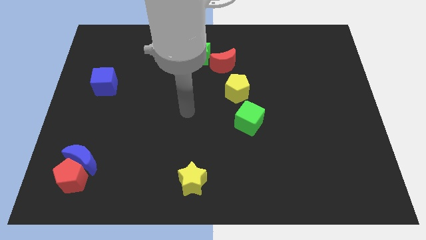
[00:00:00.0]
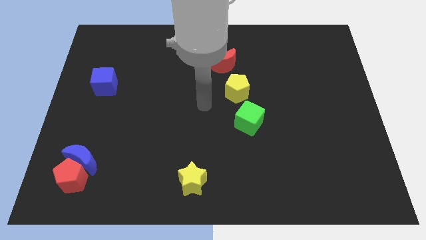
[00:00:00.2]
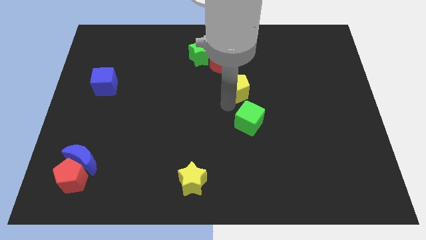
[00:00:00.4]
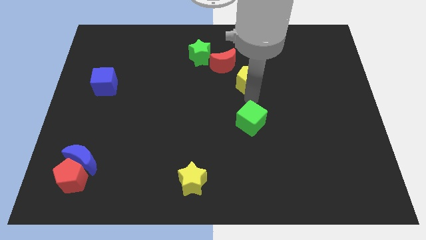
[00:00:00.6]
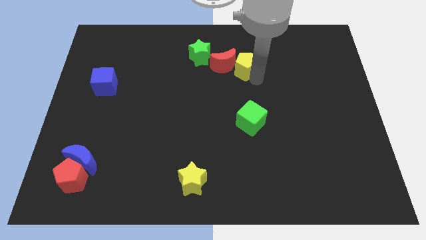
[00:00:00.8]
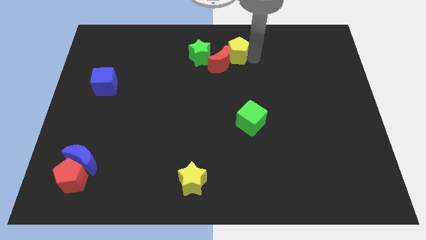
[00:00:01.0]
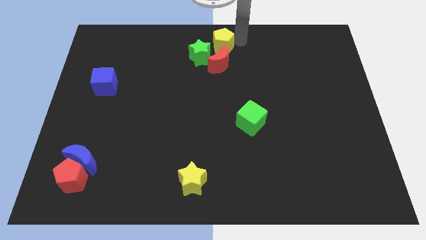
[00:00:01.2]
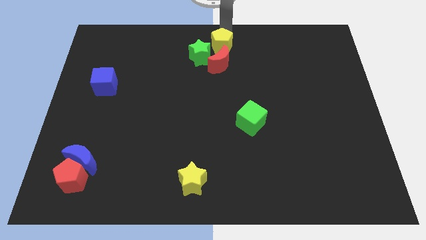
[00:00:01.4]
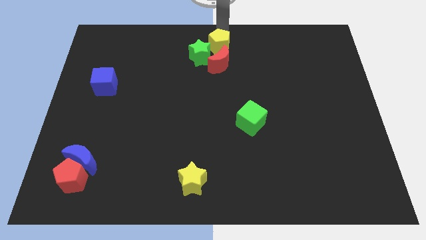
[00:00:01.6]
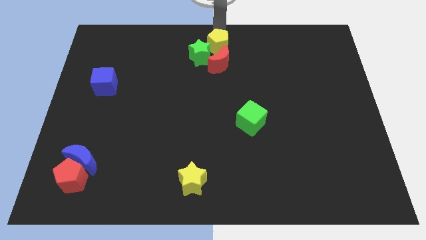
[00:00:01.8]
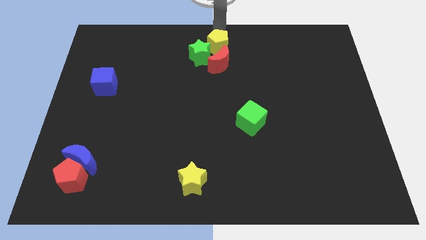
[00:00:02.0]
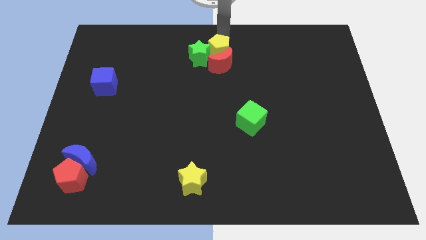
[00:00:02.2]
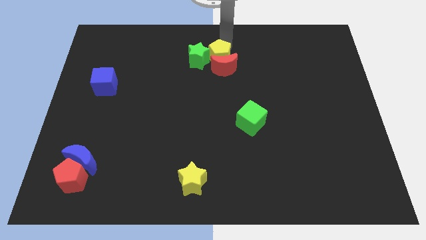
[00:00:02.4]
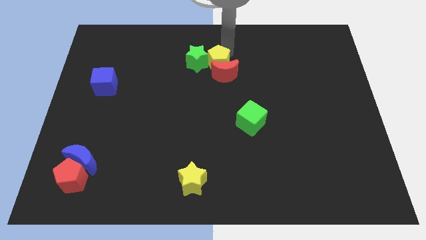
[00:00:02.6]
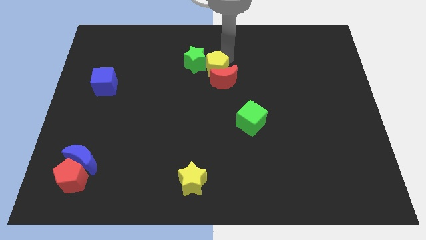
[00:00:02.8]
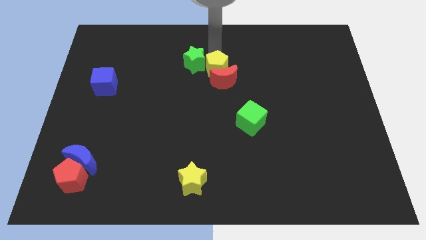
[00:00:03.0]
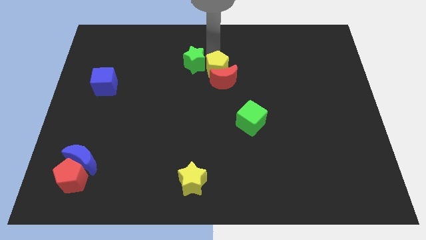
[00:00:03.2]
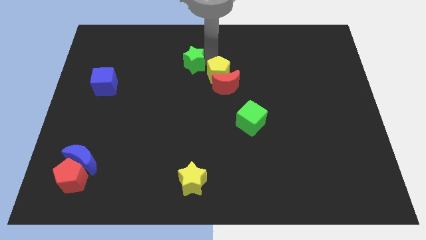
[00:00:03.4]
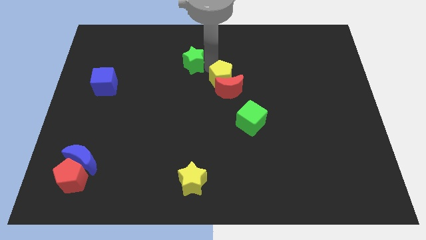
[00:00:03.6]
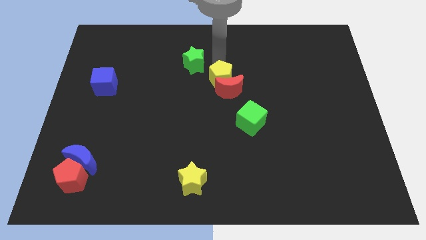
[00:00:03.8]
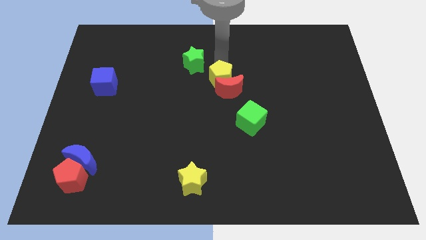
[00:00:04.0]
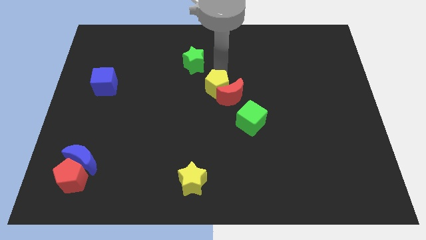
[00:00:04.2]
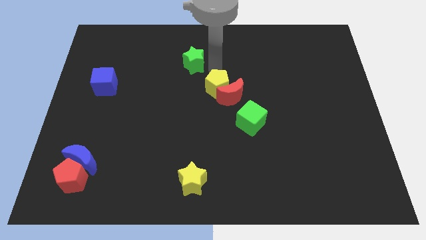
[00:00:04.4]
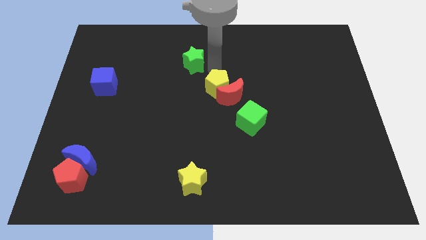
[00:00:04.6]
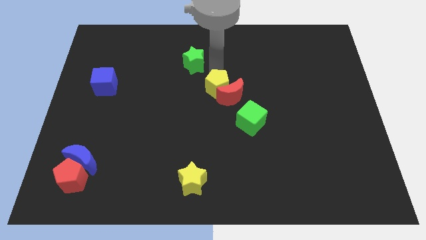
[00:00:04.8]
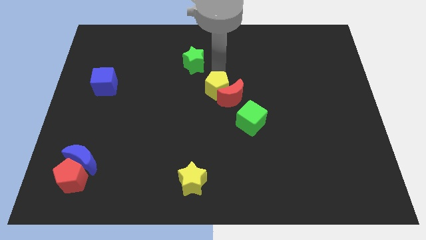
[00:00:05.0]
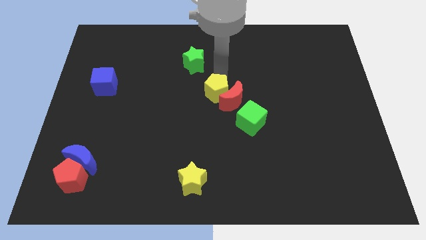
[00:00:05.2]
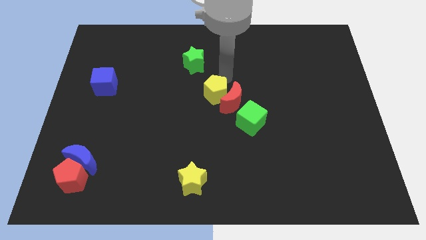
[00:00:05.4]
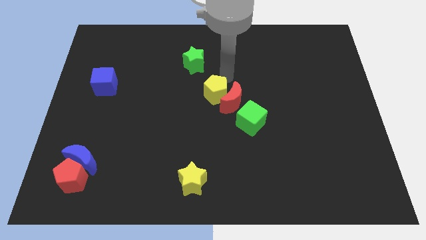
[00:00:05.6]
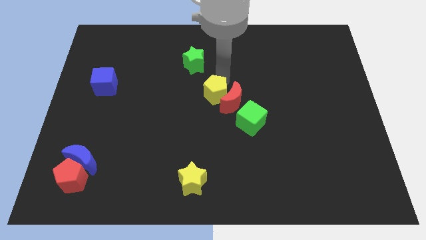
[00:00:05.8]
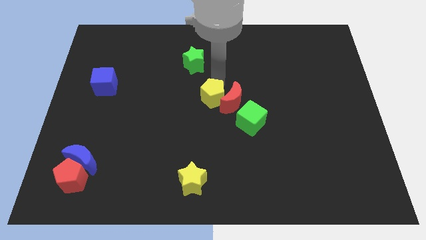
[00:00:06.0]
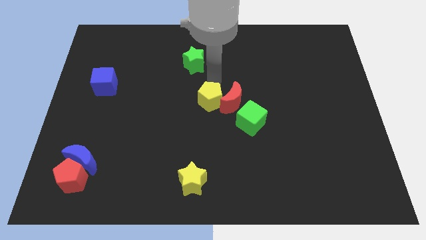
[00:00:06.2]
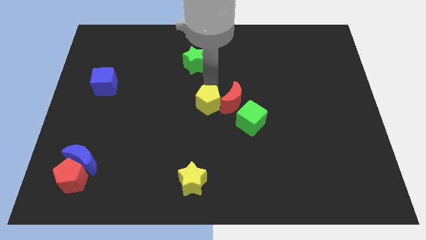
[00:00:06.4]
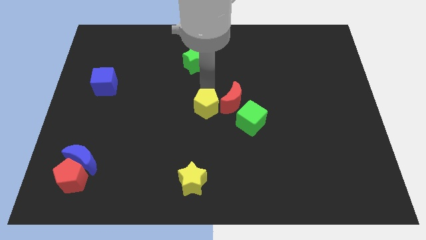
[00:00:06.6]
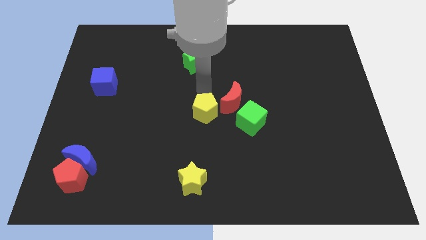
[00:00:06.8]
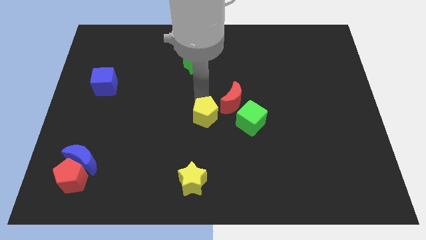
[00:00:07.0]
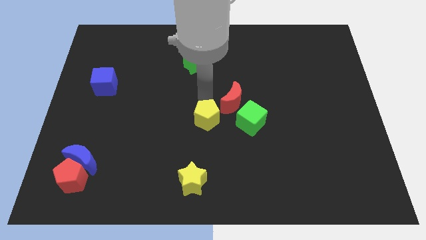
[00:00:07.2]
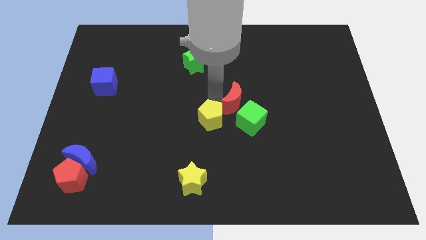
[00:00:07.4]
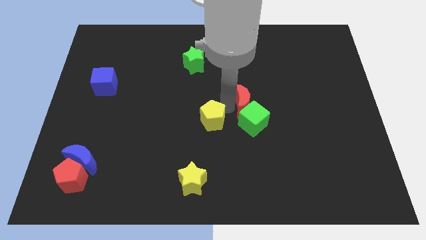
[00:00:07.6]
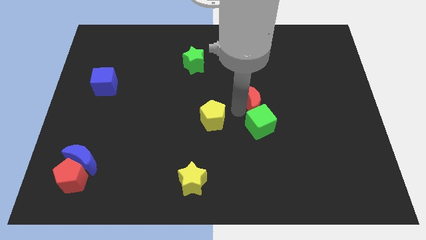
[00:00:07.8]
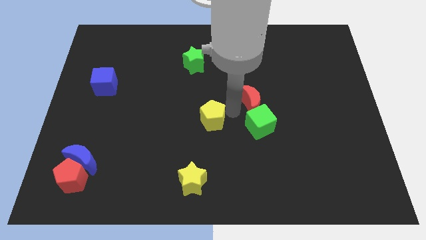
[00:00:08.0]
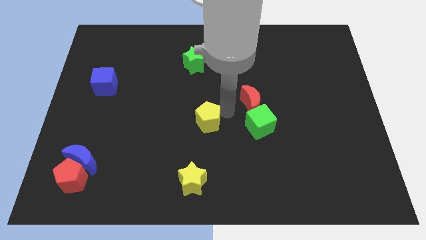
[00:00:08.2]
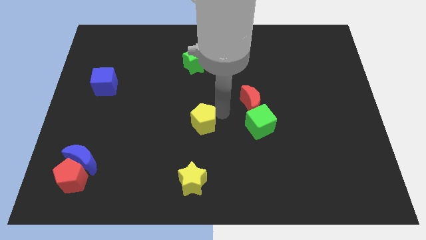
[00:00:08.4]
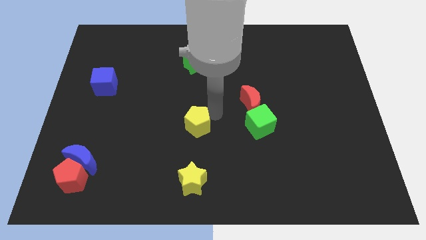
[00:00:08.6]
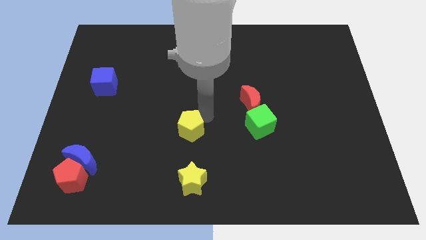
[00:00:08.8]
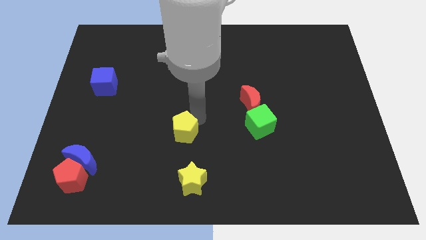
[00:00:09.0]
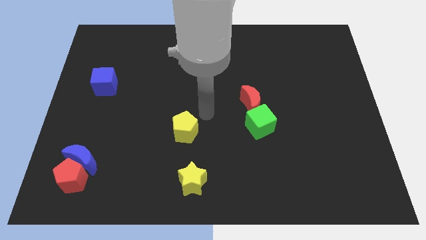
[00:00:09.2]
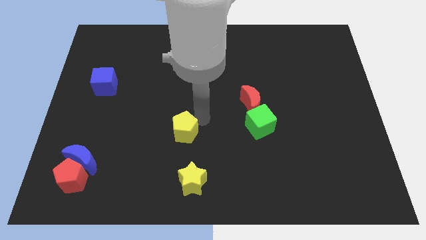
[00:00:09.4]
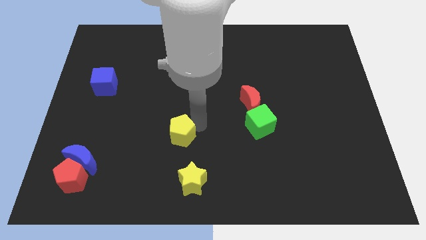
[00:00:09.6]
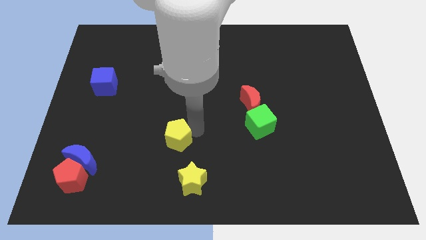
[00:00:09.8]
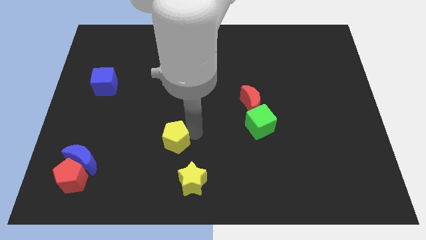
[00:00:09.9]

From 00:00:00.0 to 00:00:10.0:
move the yellow pentagon downwards and left diagonally

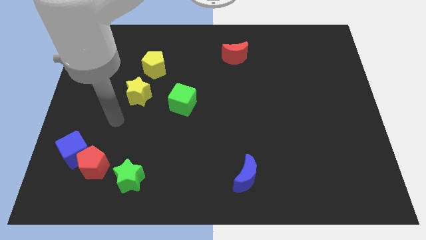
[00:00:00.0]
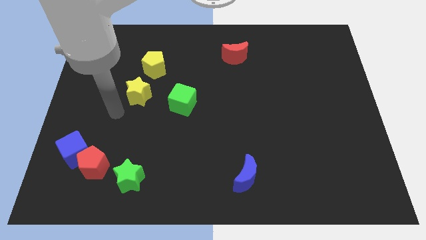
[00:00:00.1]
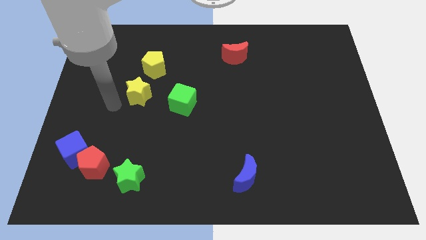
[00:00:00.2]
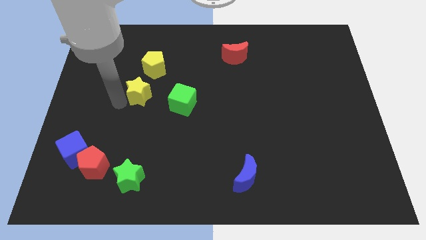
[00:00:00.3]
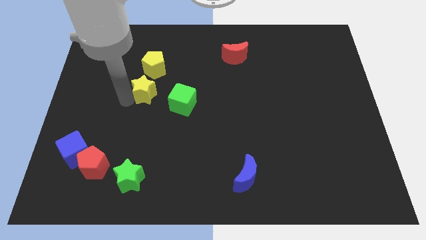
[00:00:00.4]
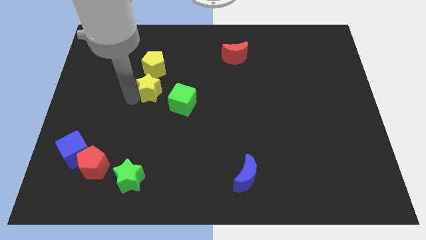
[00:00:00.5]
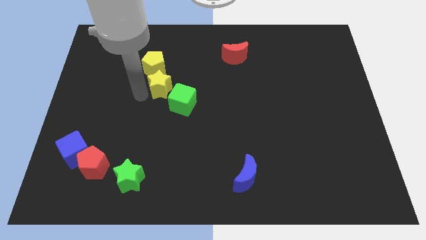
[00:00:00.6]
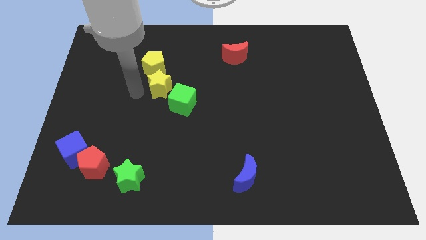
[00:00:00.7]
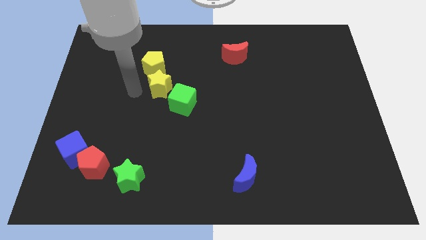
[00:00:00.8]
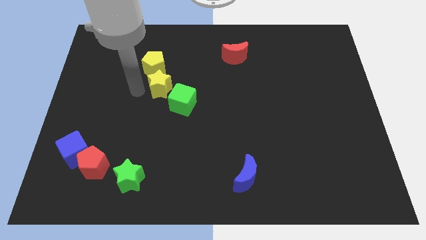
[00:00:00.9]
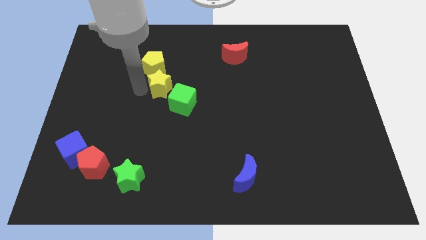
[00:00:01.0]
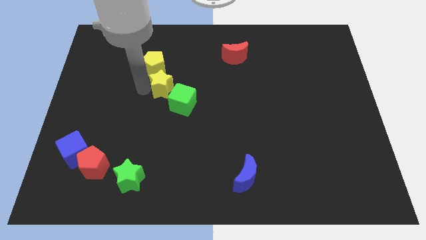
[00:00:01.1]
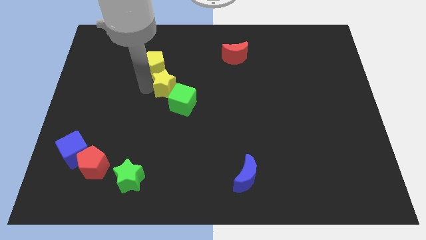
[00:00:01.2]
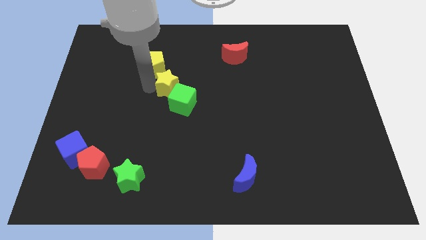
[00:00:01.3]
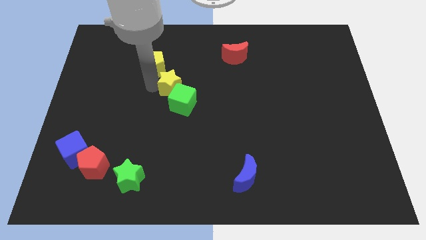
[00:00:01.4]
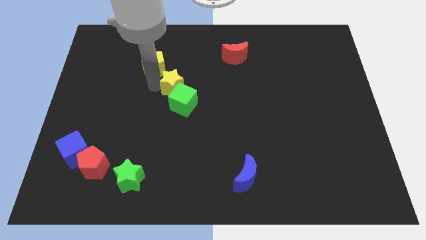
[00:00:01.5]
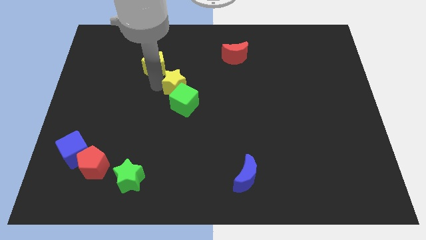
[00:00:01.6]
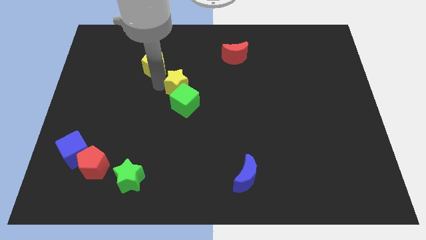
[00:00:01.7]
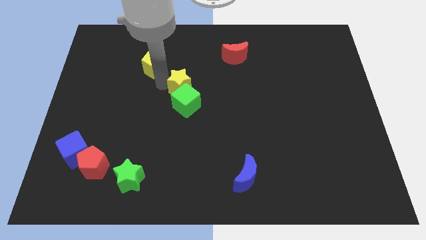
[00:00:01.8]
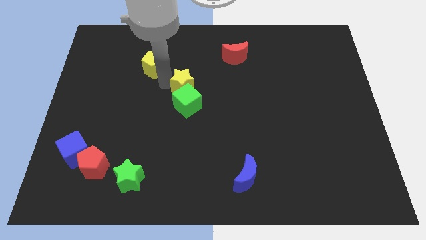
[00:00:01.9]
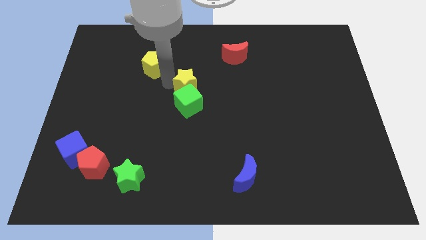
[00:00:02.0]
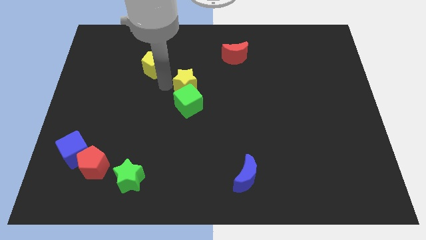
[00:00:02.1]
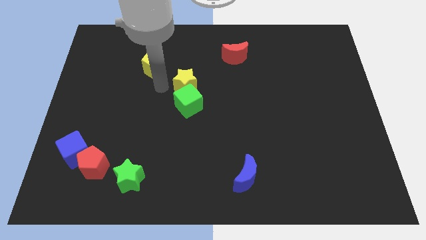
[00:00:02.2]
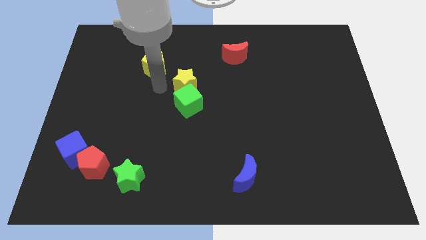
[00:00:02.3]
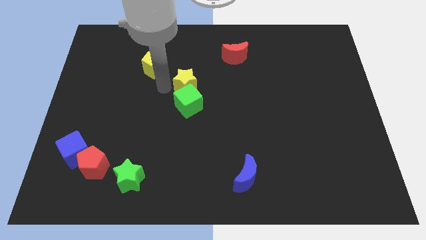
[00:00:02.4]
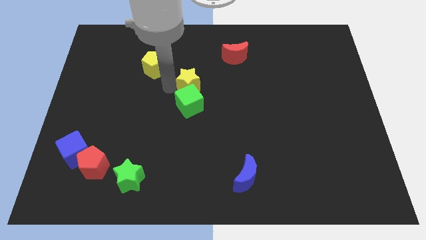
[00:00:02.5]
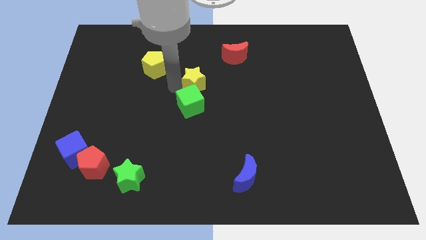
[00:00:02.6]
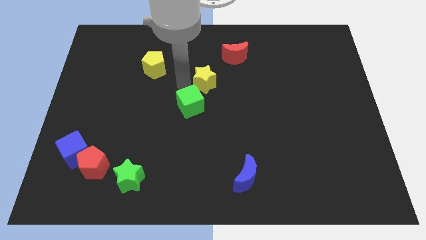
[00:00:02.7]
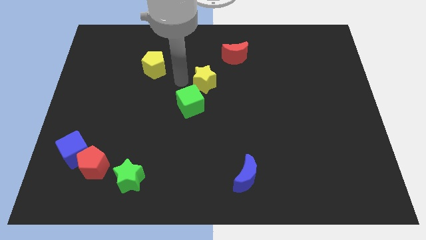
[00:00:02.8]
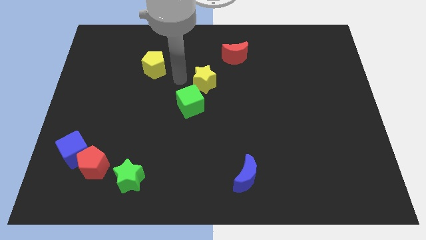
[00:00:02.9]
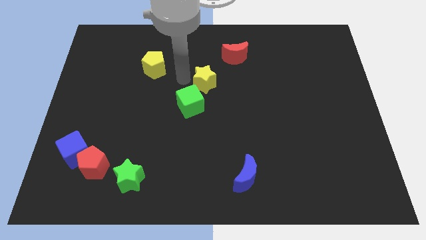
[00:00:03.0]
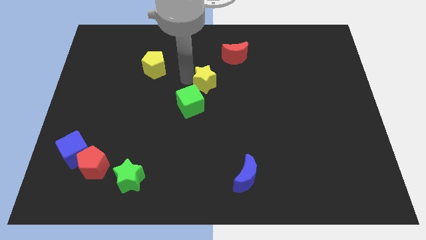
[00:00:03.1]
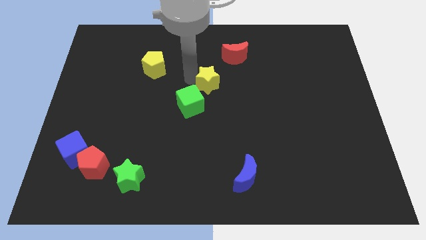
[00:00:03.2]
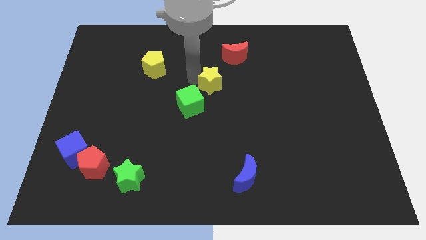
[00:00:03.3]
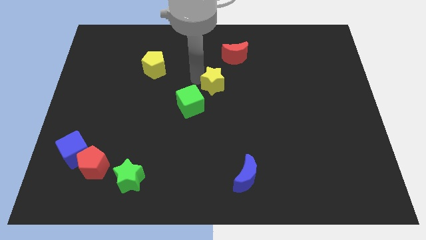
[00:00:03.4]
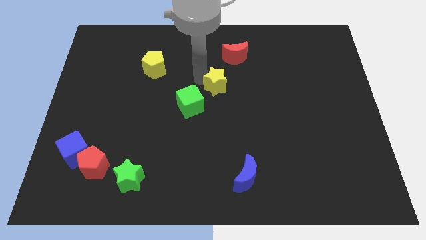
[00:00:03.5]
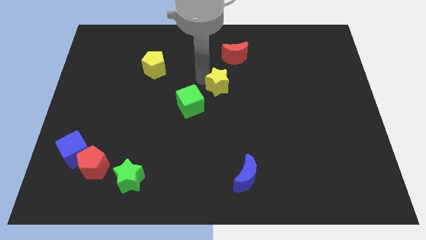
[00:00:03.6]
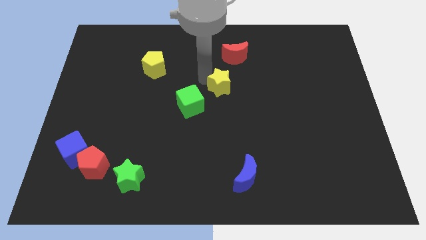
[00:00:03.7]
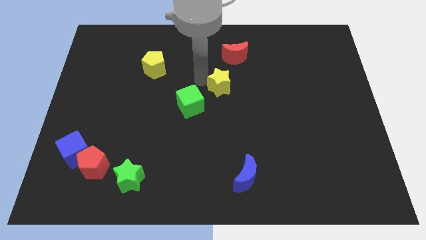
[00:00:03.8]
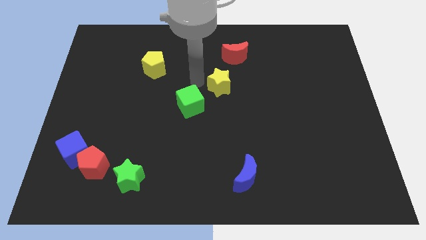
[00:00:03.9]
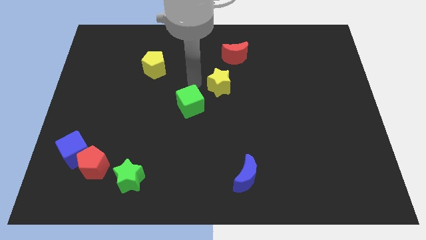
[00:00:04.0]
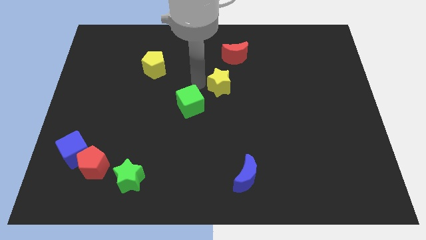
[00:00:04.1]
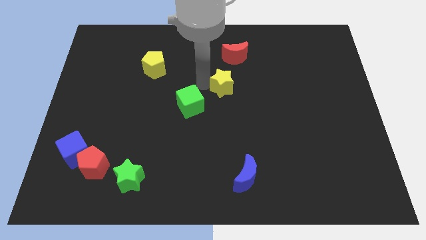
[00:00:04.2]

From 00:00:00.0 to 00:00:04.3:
move the yellow star to the right
